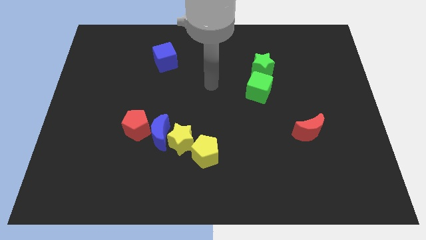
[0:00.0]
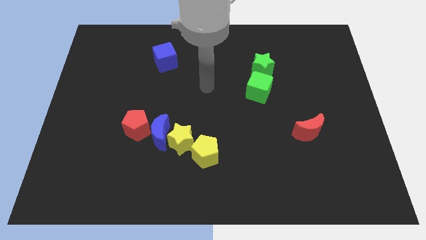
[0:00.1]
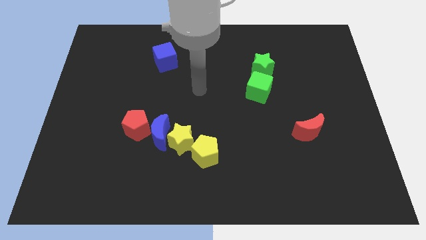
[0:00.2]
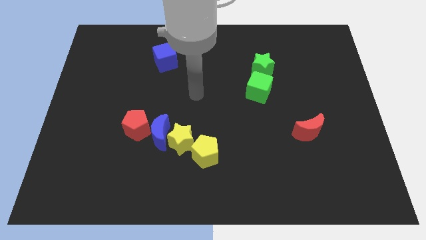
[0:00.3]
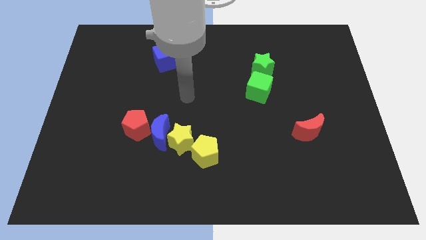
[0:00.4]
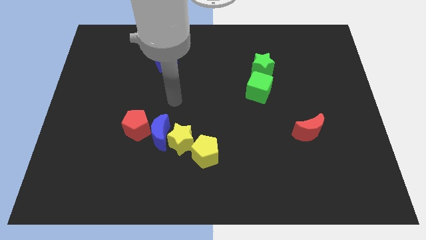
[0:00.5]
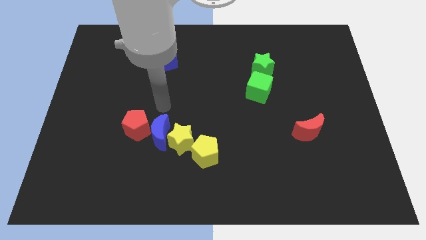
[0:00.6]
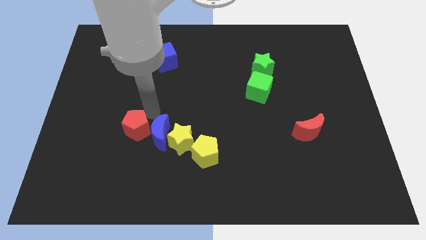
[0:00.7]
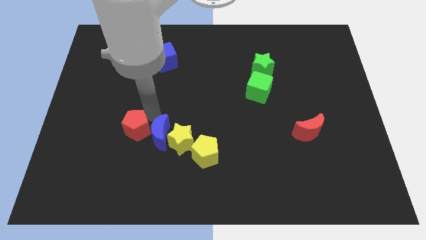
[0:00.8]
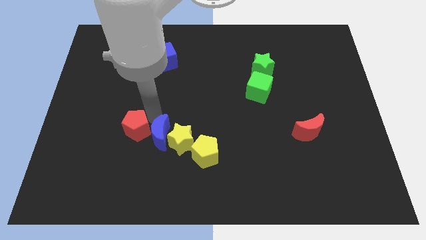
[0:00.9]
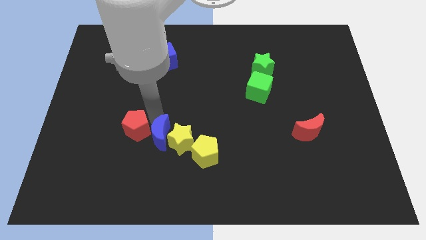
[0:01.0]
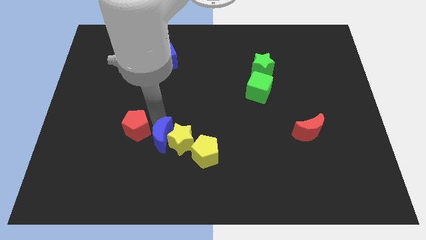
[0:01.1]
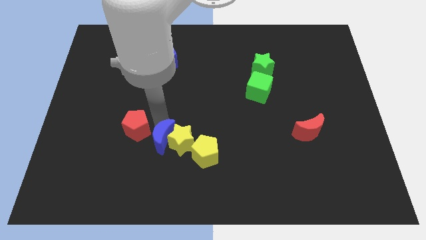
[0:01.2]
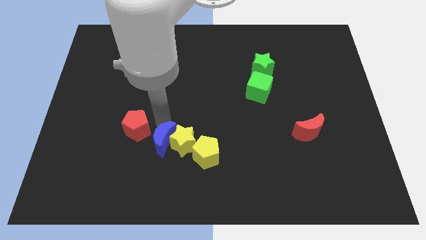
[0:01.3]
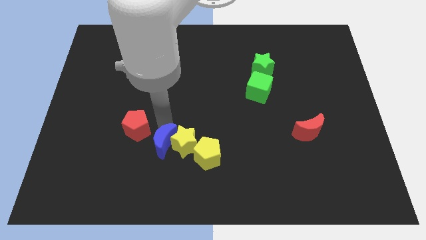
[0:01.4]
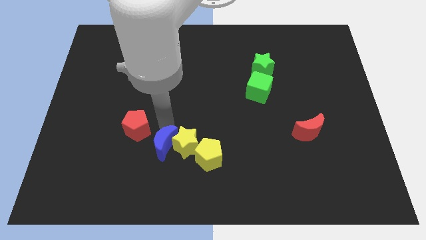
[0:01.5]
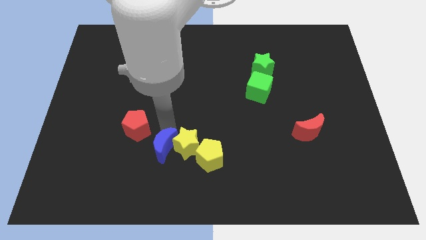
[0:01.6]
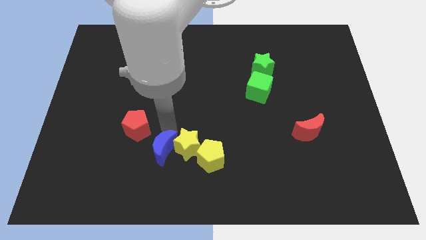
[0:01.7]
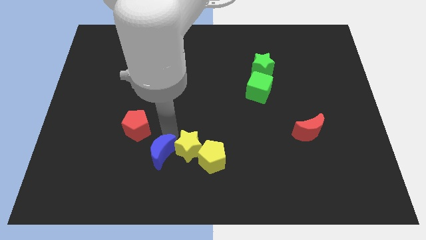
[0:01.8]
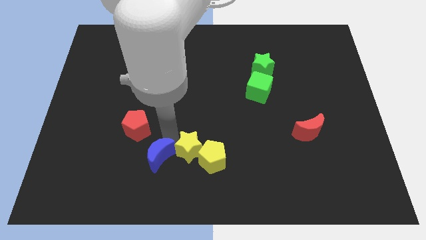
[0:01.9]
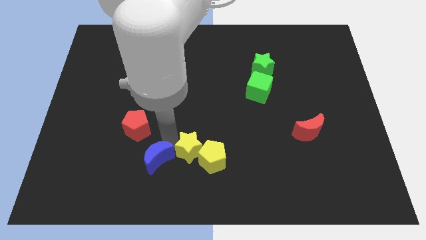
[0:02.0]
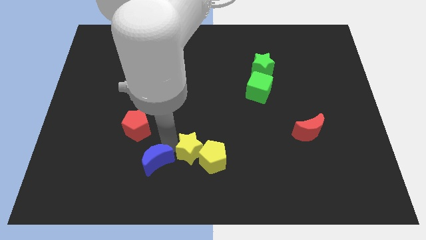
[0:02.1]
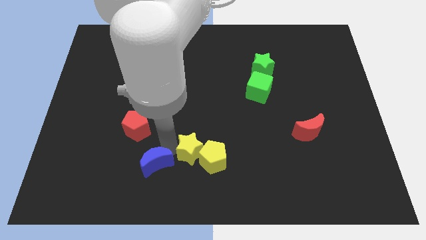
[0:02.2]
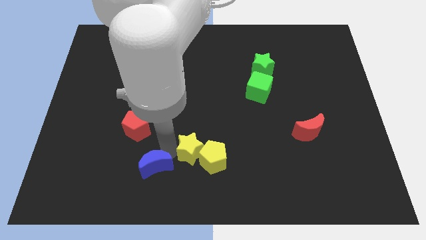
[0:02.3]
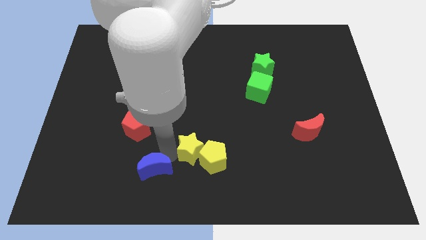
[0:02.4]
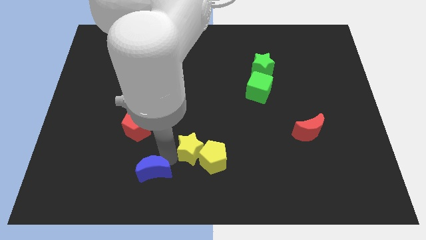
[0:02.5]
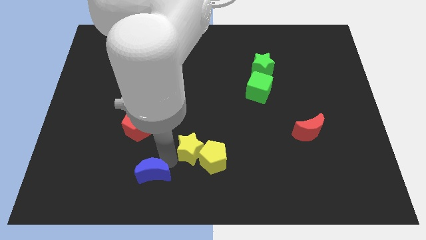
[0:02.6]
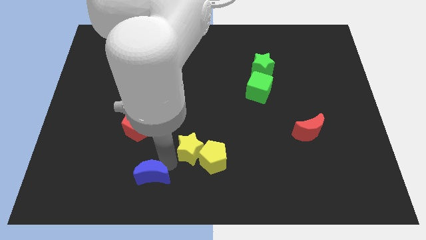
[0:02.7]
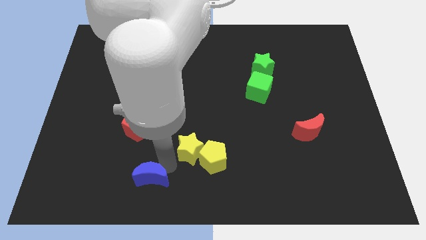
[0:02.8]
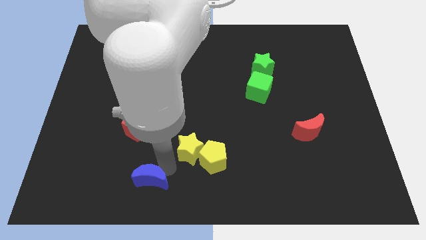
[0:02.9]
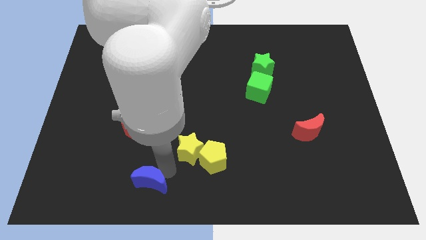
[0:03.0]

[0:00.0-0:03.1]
move the blue moon away from the yellow star and red pentagon

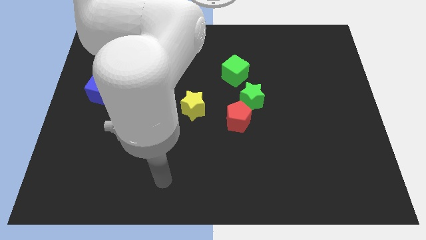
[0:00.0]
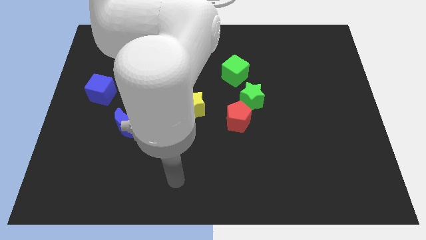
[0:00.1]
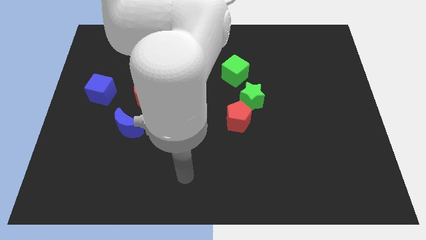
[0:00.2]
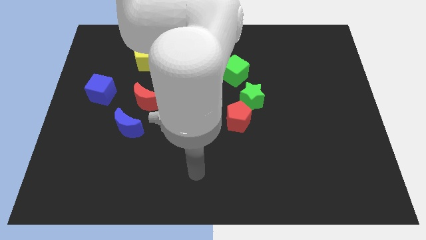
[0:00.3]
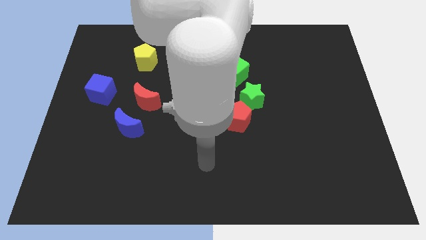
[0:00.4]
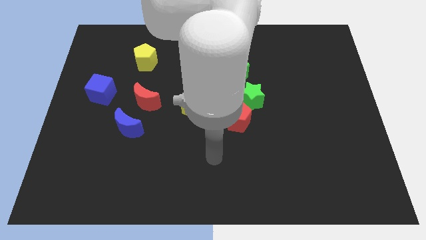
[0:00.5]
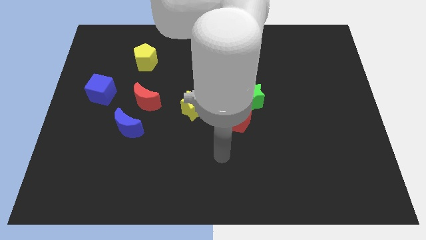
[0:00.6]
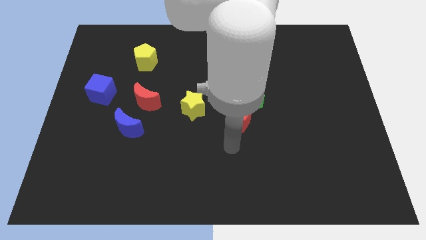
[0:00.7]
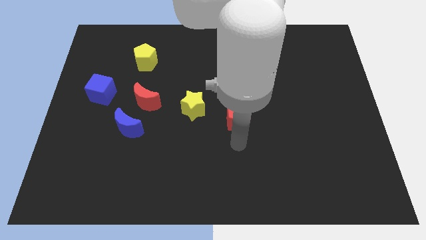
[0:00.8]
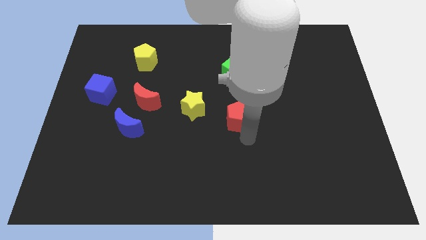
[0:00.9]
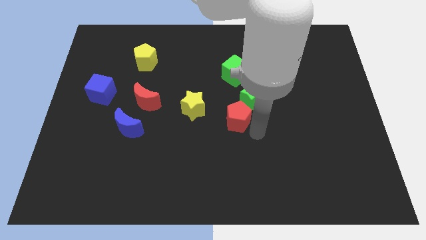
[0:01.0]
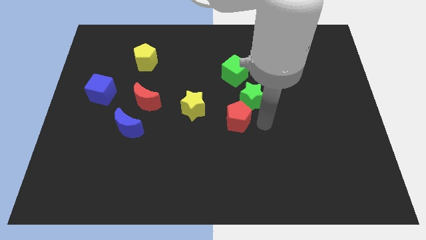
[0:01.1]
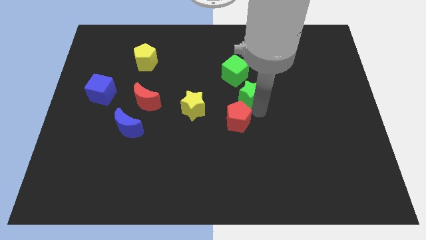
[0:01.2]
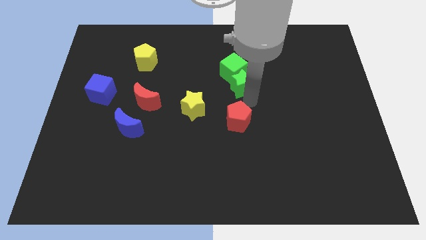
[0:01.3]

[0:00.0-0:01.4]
separate the red pentagon from the green star

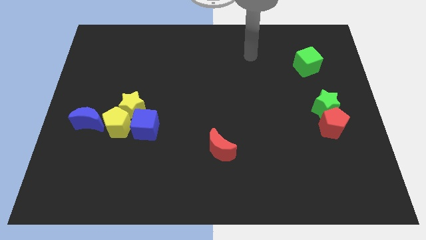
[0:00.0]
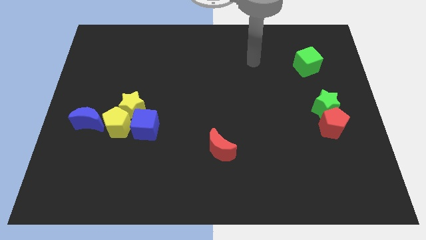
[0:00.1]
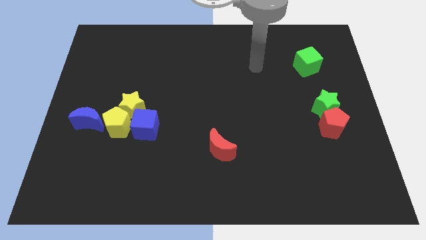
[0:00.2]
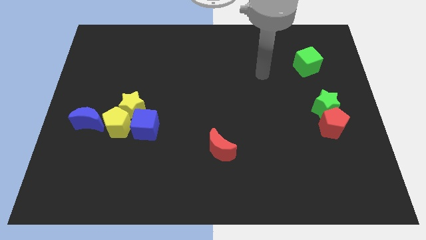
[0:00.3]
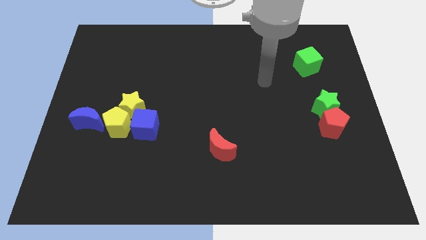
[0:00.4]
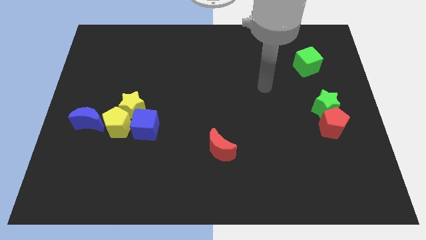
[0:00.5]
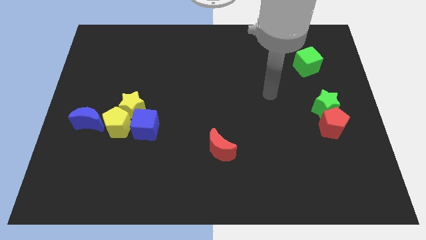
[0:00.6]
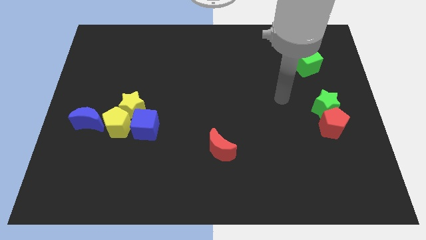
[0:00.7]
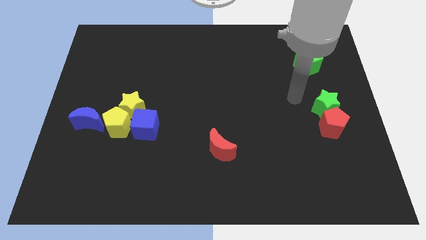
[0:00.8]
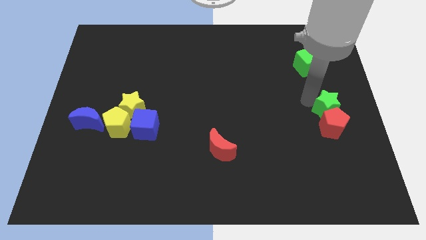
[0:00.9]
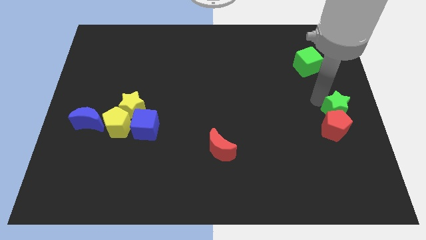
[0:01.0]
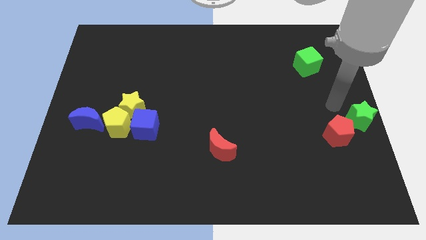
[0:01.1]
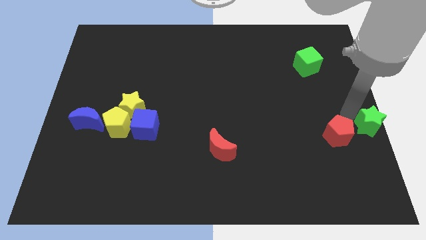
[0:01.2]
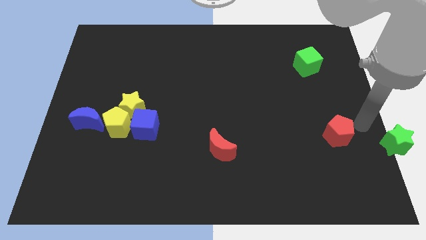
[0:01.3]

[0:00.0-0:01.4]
move the red pentagon away from the green star

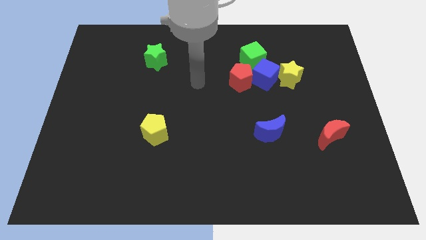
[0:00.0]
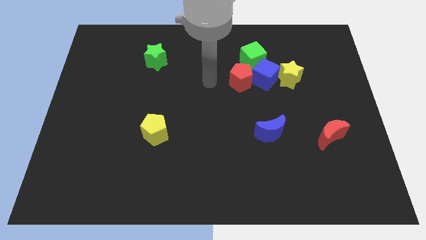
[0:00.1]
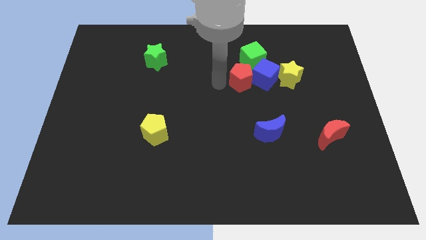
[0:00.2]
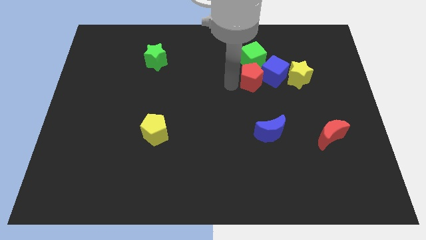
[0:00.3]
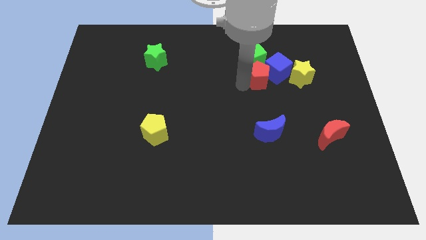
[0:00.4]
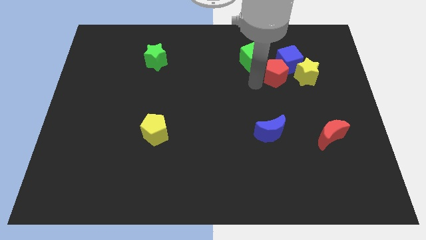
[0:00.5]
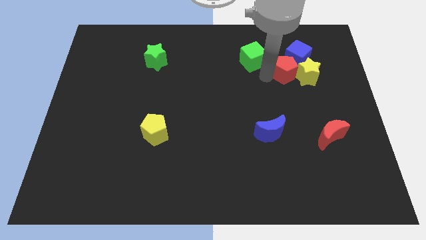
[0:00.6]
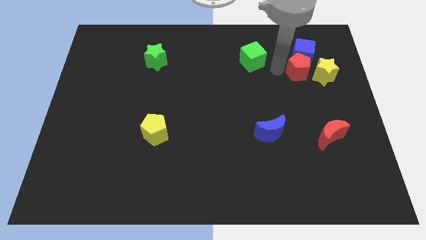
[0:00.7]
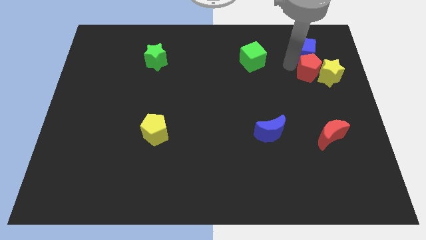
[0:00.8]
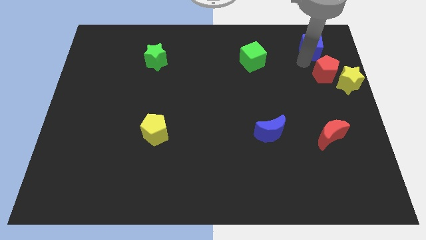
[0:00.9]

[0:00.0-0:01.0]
pull the yellow star apart from the blue cube

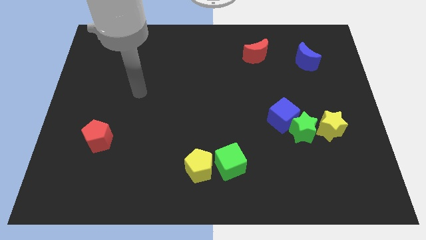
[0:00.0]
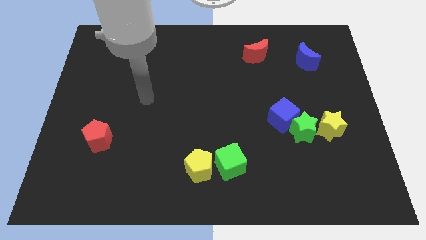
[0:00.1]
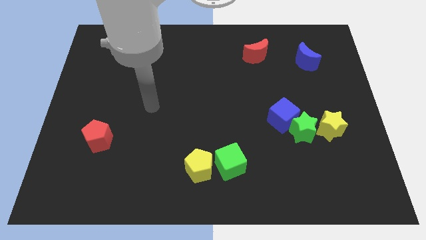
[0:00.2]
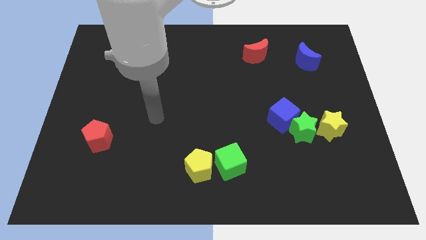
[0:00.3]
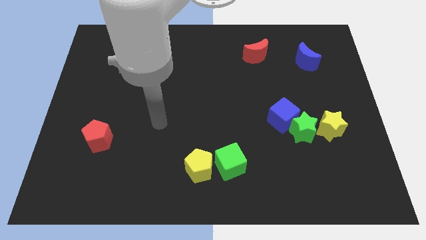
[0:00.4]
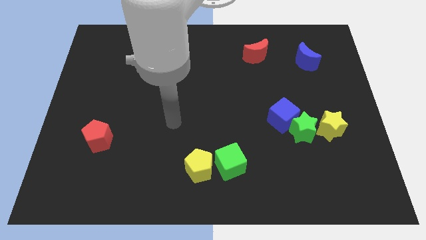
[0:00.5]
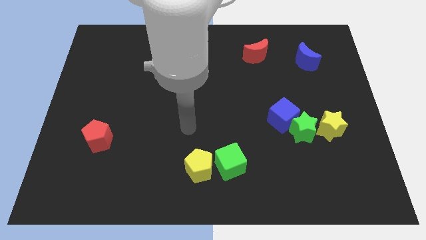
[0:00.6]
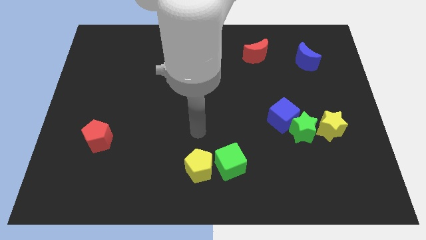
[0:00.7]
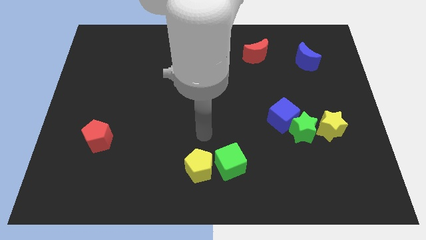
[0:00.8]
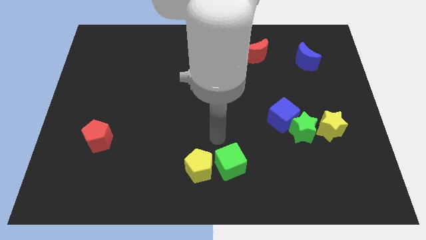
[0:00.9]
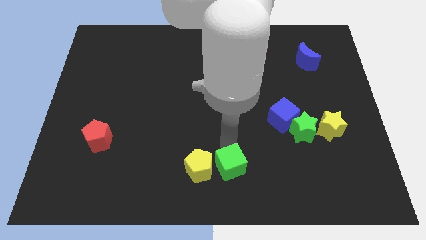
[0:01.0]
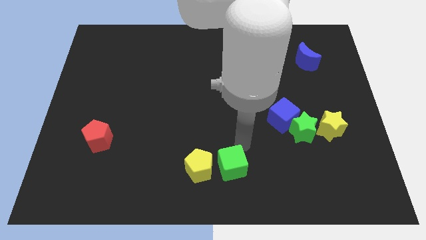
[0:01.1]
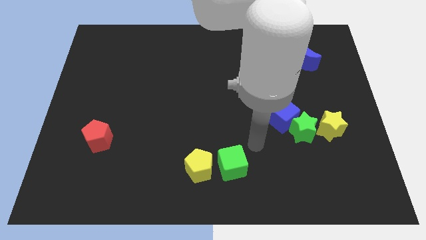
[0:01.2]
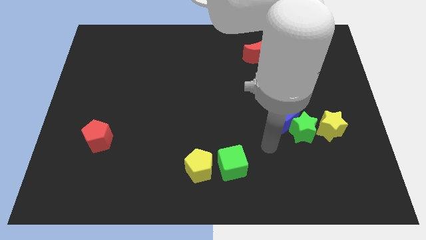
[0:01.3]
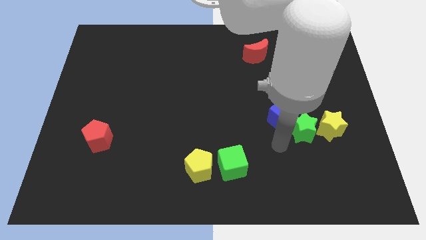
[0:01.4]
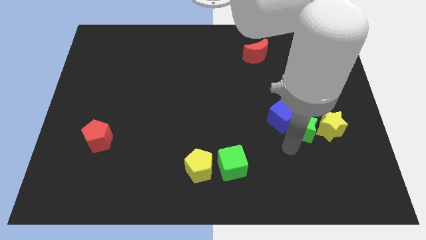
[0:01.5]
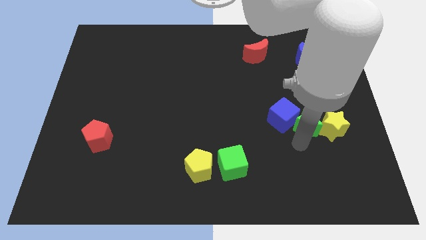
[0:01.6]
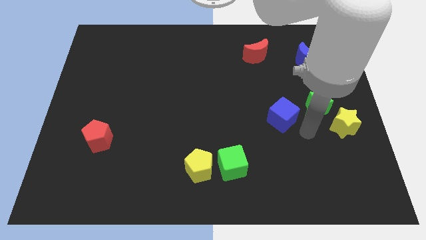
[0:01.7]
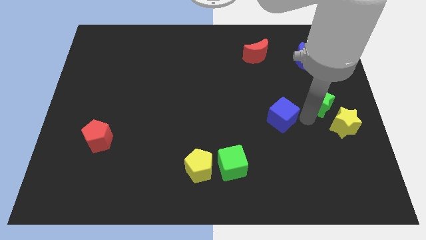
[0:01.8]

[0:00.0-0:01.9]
separate the blue cube from the green star

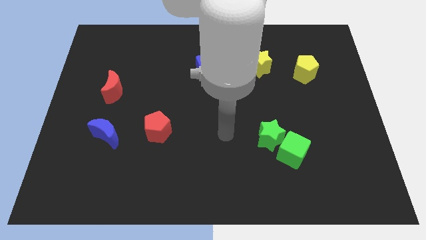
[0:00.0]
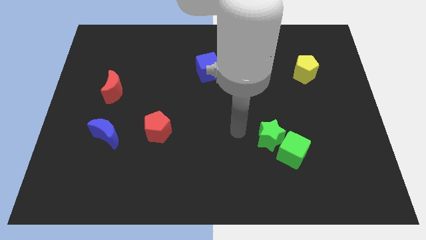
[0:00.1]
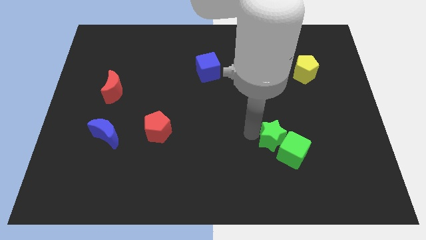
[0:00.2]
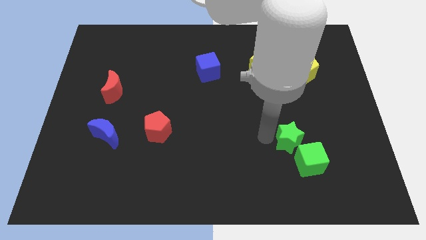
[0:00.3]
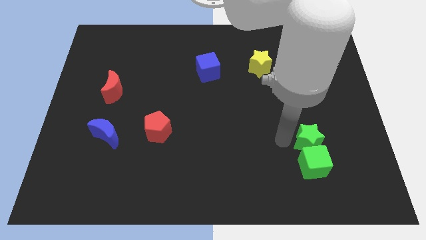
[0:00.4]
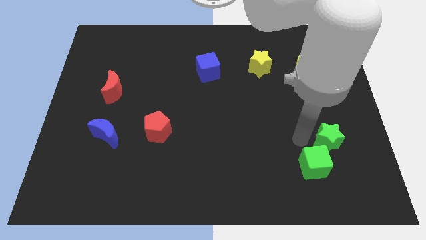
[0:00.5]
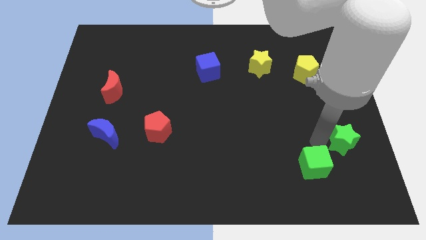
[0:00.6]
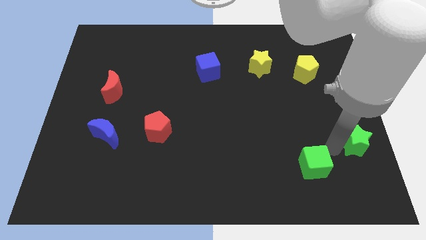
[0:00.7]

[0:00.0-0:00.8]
separate the green cube from the green star
